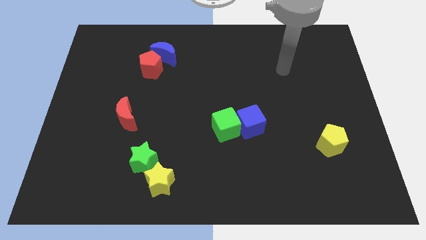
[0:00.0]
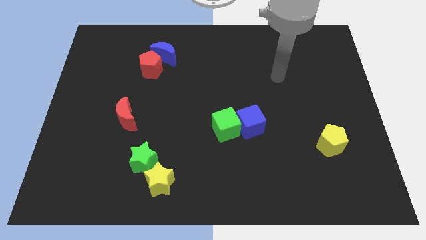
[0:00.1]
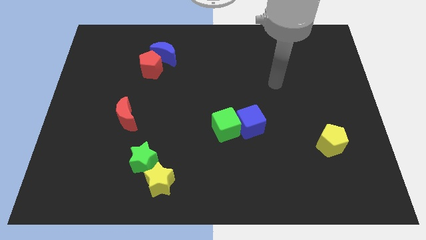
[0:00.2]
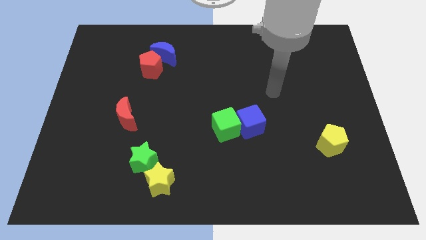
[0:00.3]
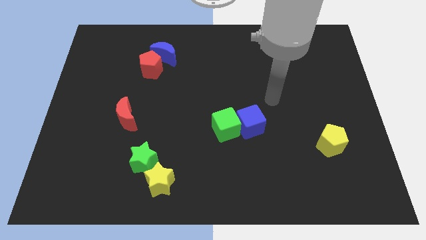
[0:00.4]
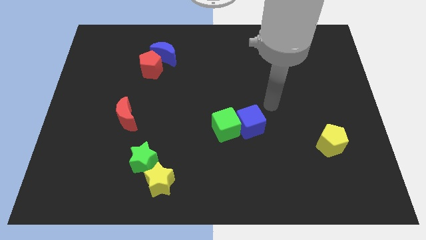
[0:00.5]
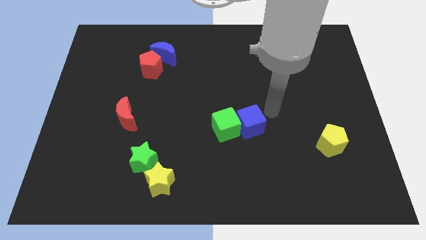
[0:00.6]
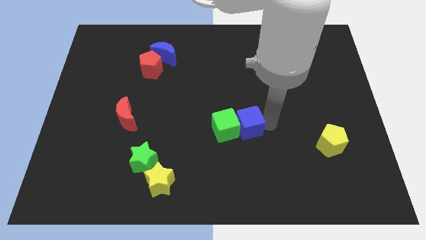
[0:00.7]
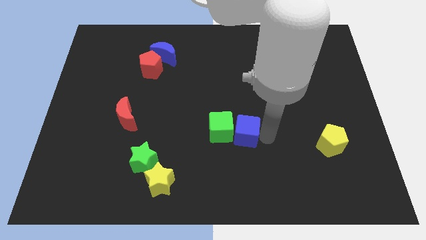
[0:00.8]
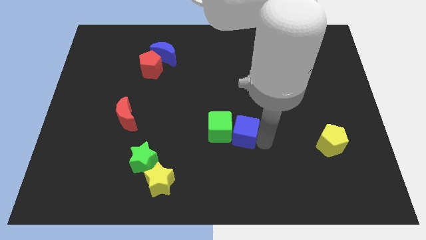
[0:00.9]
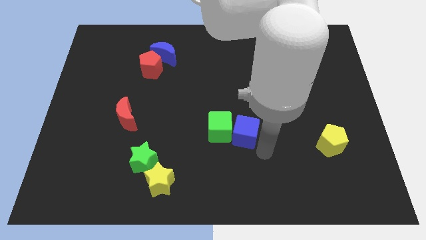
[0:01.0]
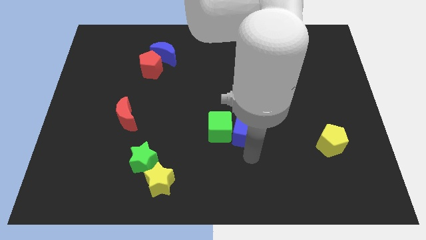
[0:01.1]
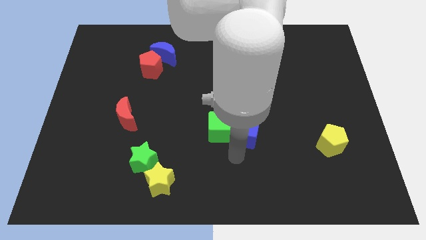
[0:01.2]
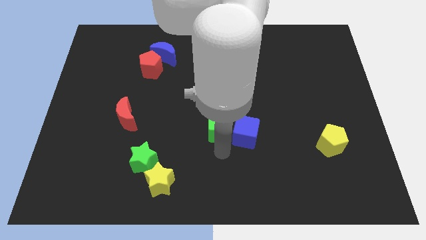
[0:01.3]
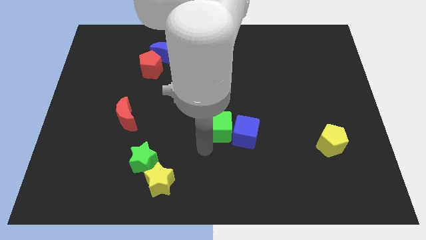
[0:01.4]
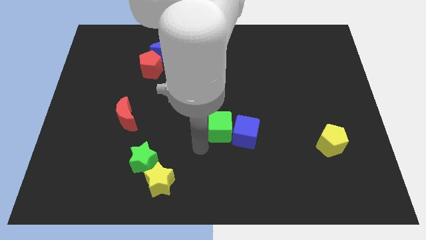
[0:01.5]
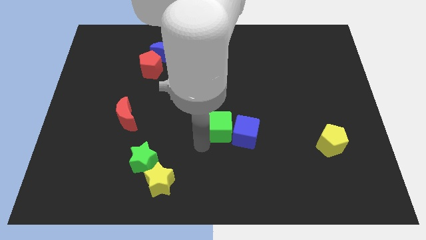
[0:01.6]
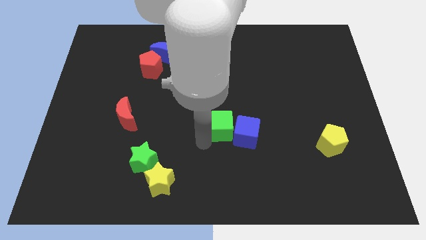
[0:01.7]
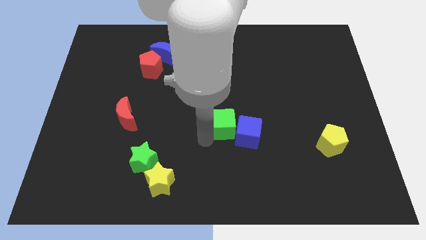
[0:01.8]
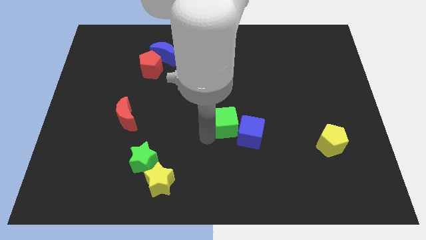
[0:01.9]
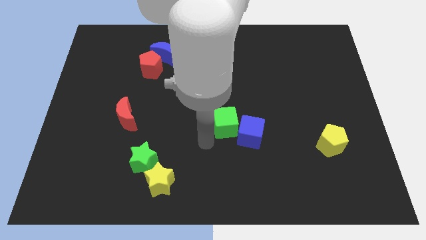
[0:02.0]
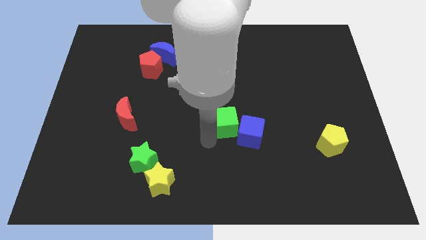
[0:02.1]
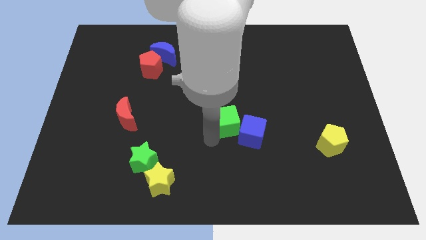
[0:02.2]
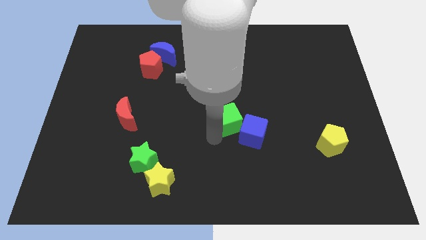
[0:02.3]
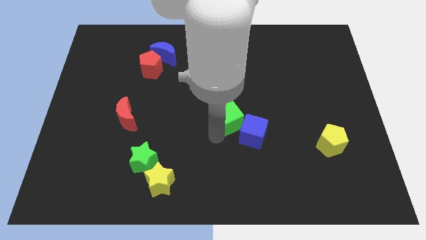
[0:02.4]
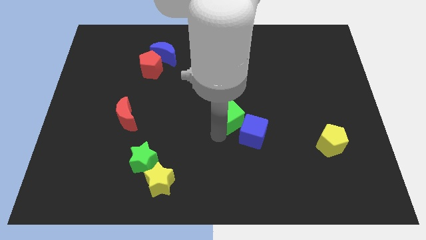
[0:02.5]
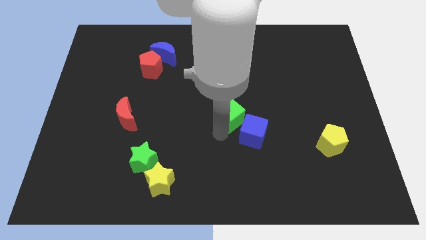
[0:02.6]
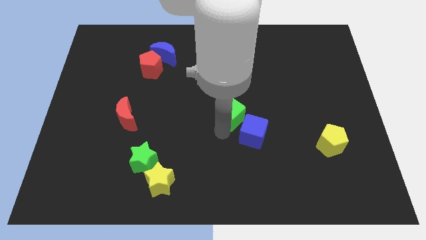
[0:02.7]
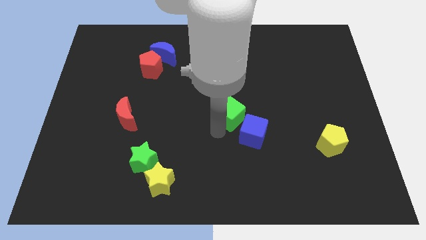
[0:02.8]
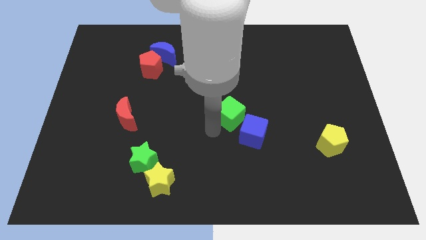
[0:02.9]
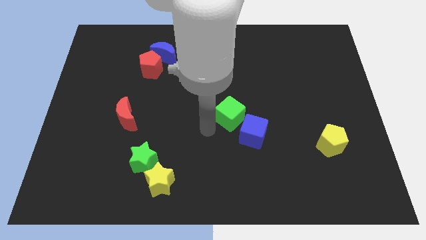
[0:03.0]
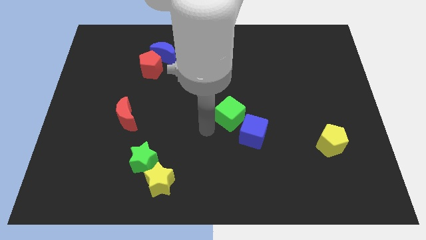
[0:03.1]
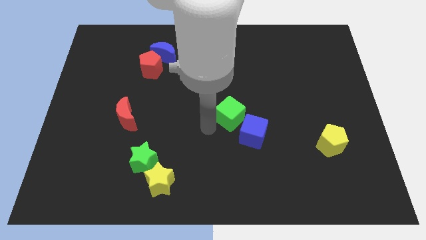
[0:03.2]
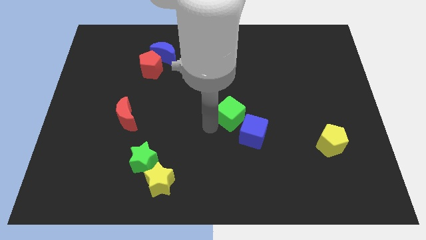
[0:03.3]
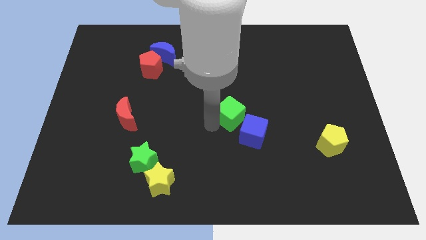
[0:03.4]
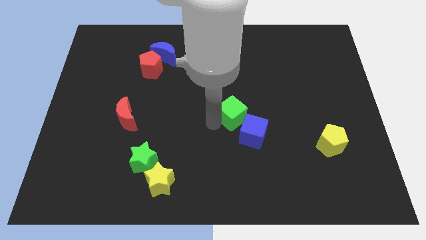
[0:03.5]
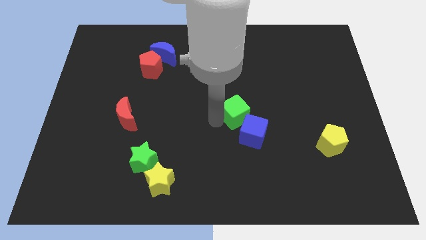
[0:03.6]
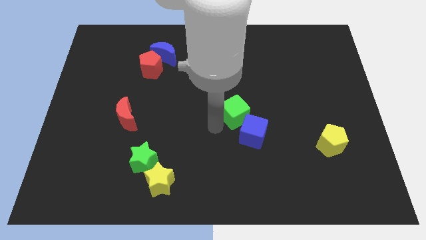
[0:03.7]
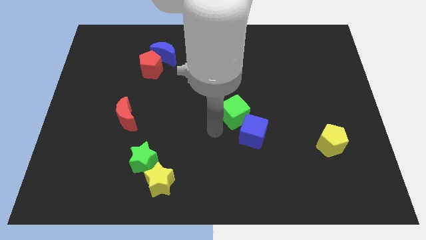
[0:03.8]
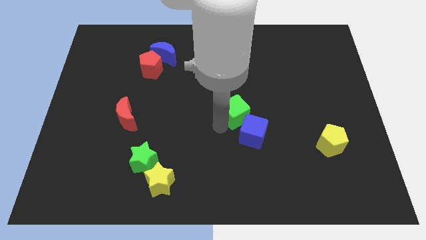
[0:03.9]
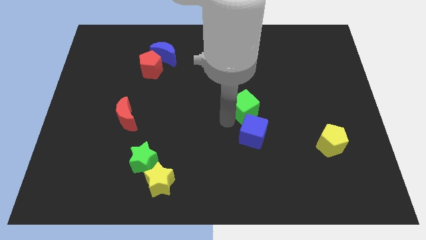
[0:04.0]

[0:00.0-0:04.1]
slide the green cube up and then to the right a bit

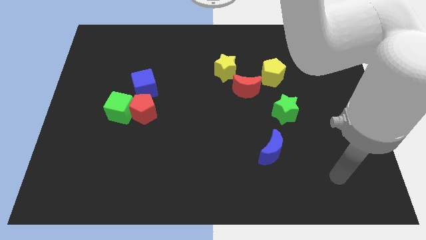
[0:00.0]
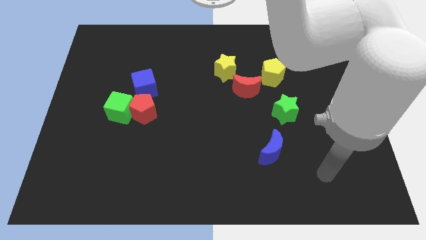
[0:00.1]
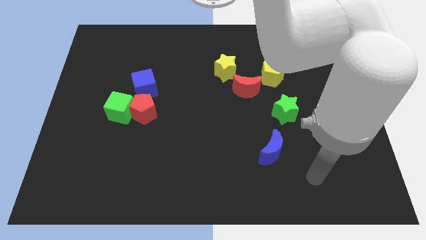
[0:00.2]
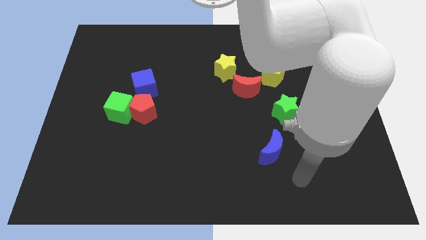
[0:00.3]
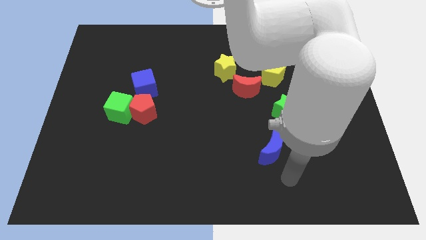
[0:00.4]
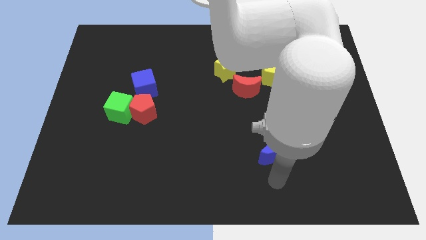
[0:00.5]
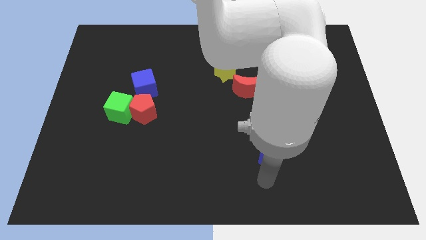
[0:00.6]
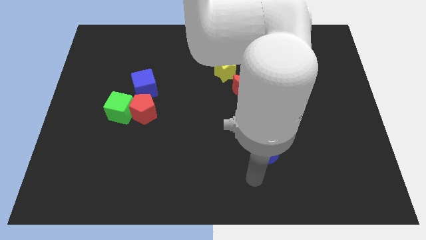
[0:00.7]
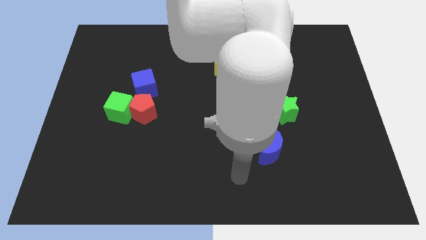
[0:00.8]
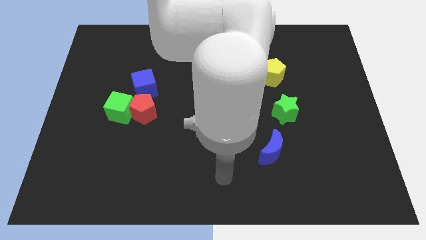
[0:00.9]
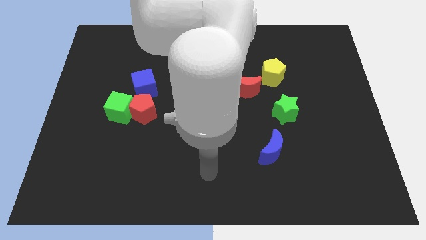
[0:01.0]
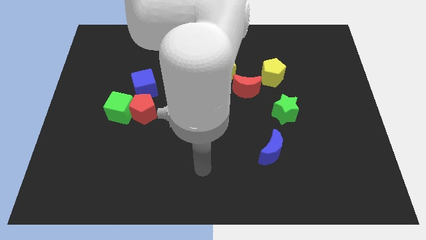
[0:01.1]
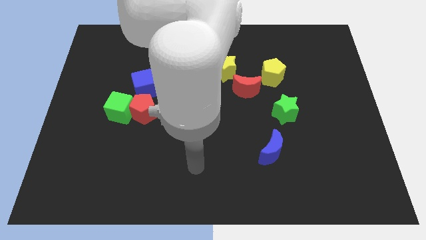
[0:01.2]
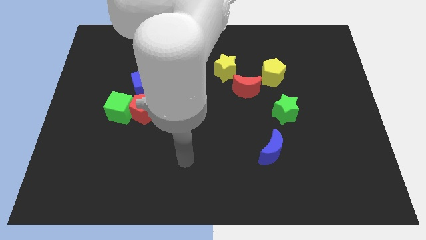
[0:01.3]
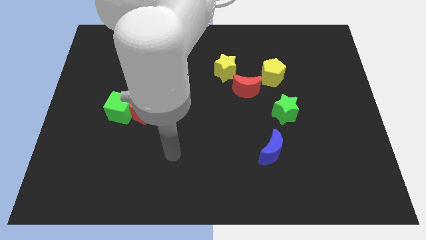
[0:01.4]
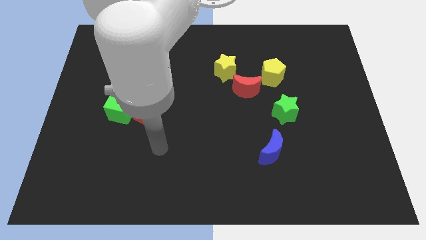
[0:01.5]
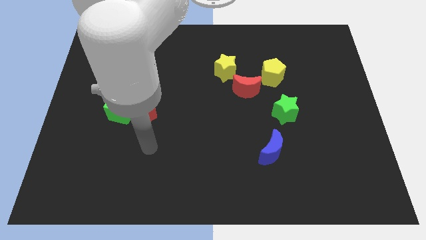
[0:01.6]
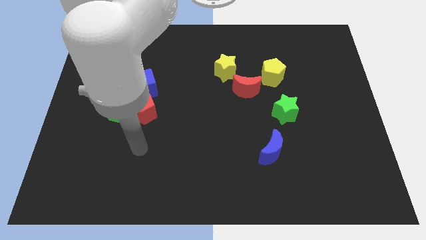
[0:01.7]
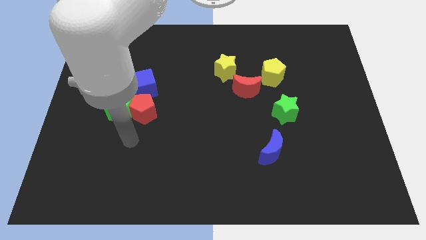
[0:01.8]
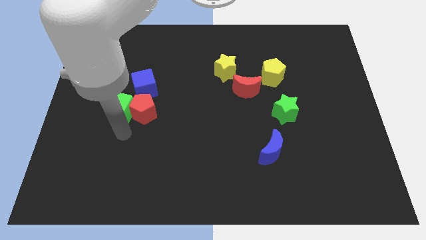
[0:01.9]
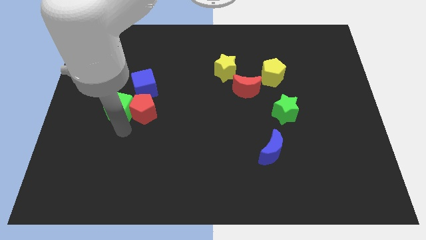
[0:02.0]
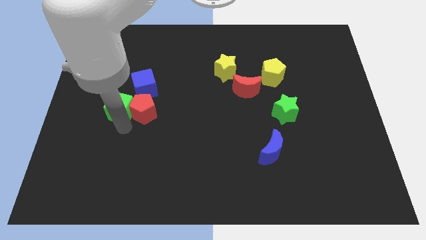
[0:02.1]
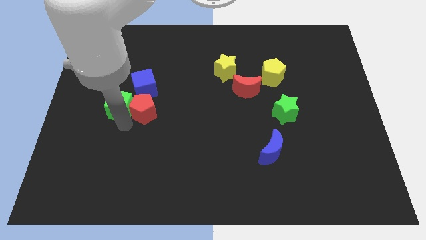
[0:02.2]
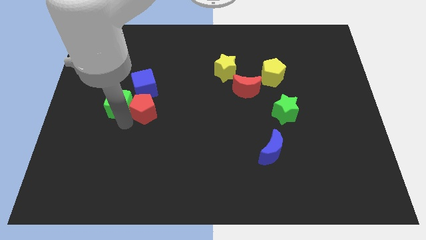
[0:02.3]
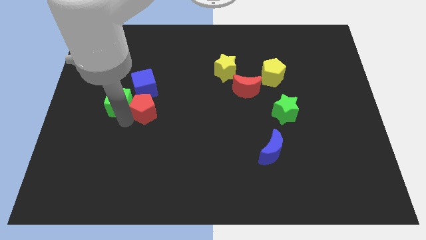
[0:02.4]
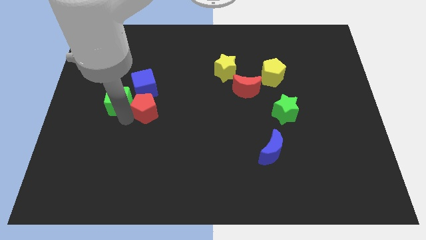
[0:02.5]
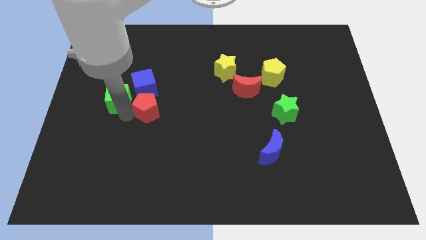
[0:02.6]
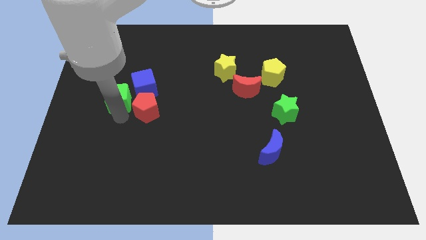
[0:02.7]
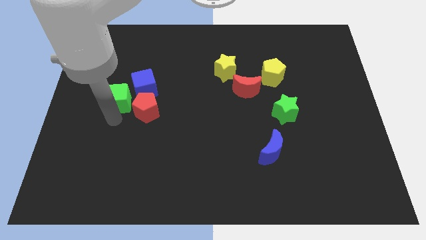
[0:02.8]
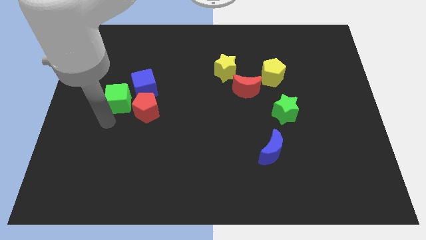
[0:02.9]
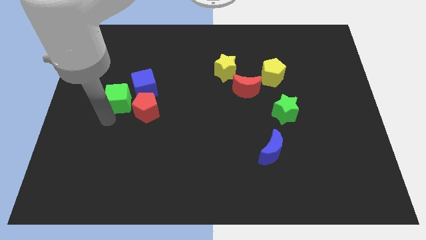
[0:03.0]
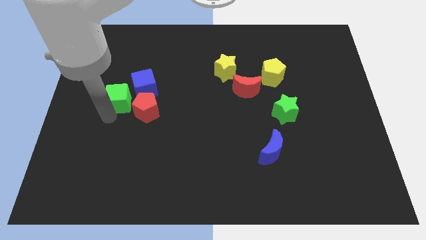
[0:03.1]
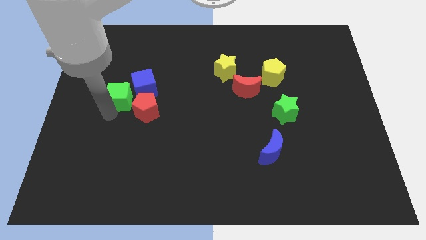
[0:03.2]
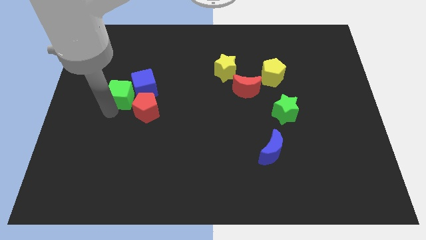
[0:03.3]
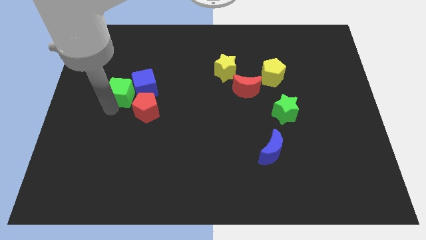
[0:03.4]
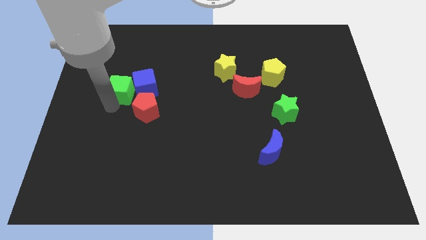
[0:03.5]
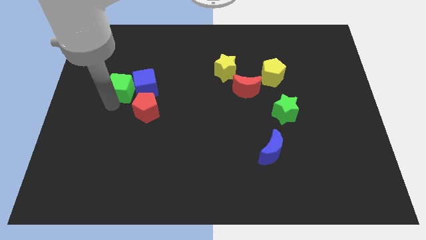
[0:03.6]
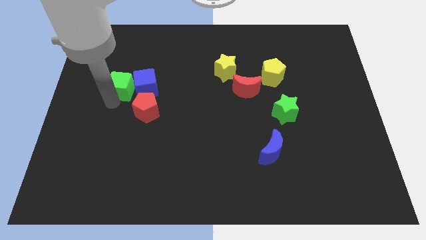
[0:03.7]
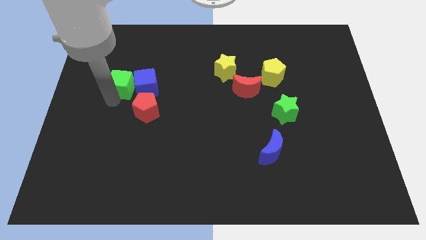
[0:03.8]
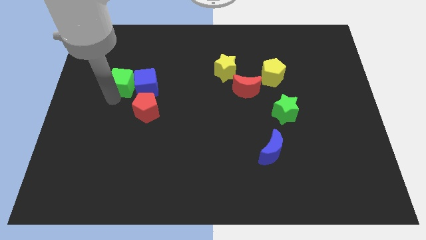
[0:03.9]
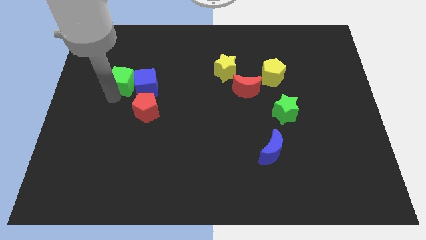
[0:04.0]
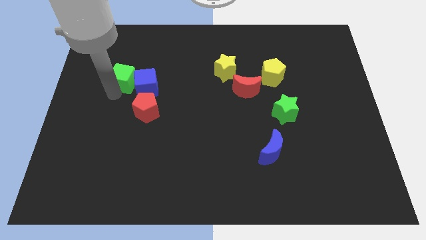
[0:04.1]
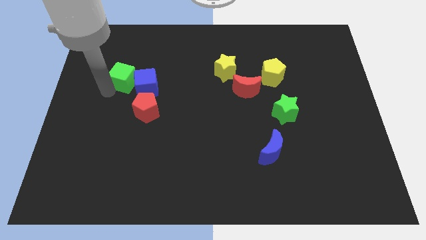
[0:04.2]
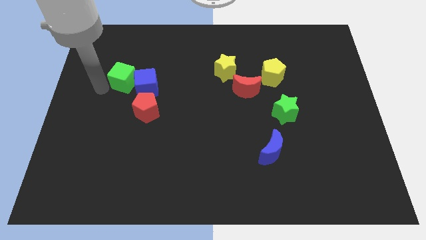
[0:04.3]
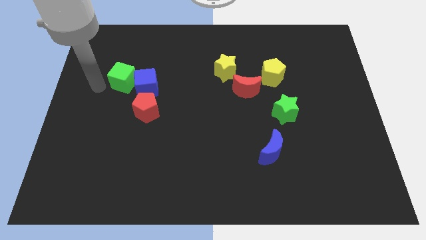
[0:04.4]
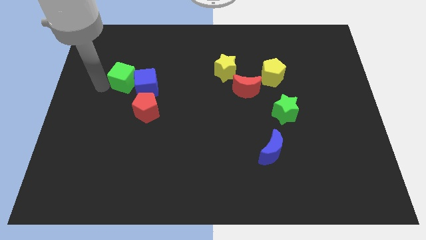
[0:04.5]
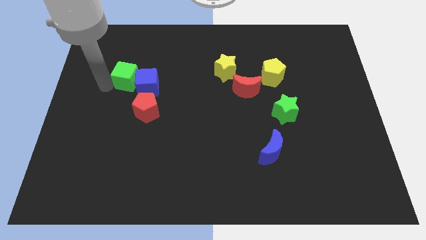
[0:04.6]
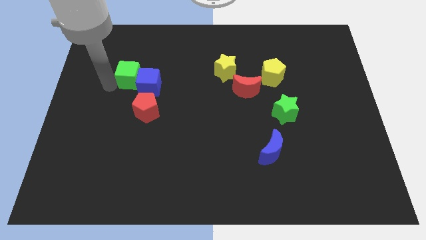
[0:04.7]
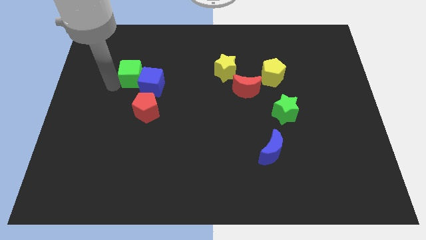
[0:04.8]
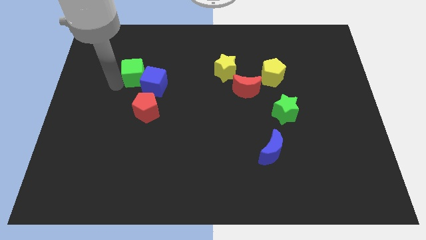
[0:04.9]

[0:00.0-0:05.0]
slightly push the green cube diagonally upwards and to the right
